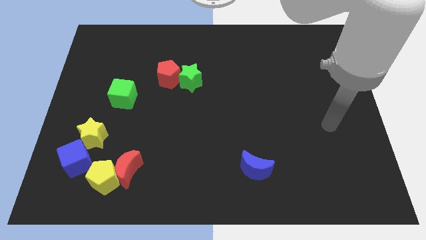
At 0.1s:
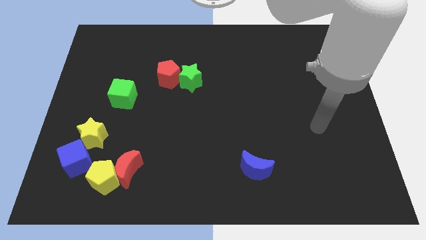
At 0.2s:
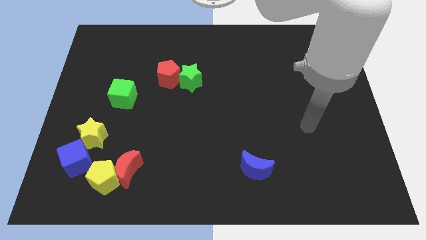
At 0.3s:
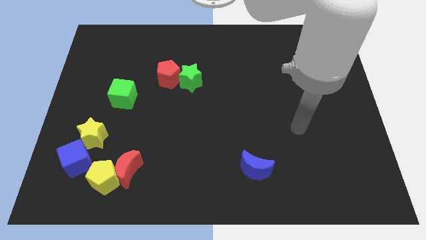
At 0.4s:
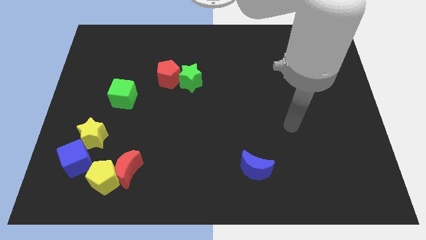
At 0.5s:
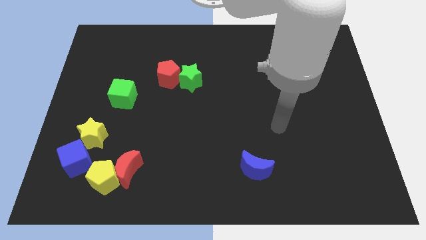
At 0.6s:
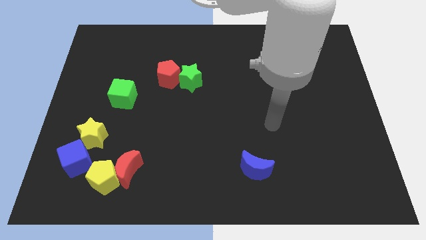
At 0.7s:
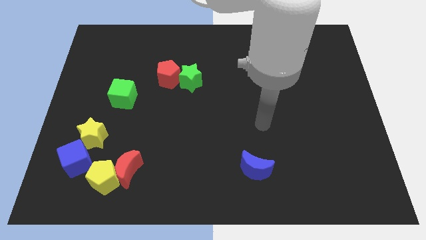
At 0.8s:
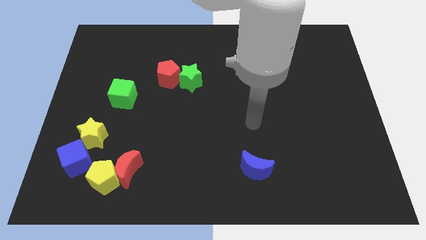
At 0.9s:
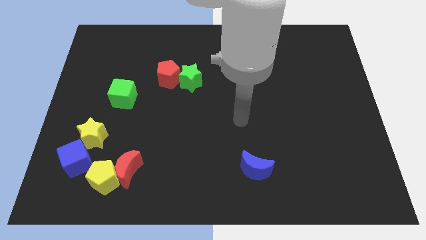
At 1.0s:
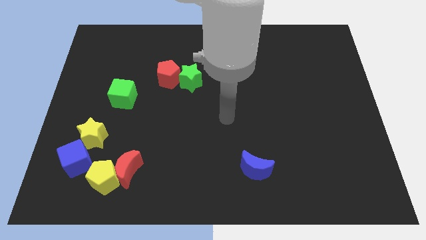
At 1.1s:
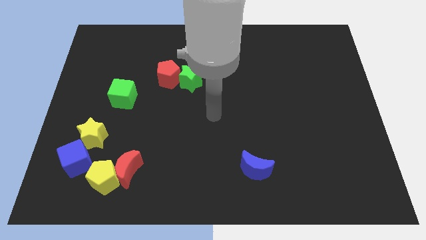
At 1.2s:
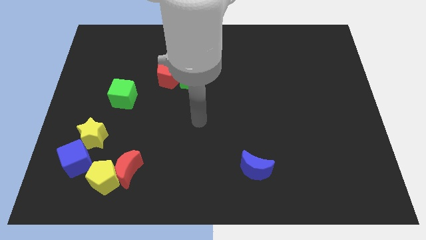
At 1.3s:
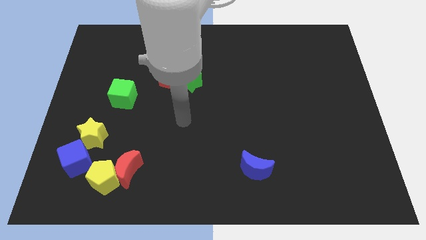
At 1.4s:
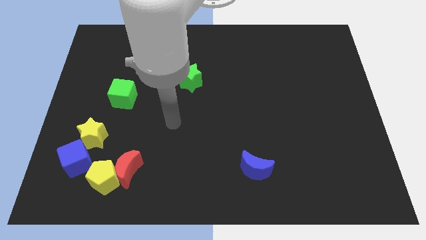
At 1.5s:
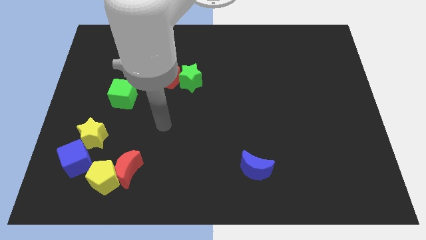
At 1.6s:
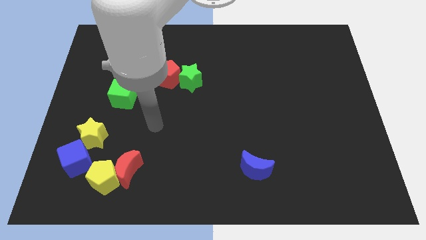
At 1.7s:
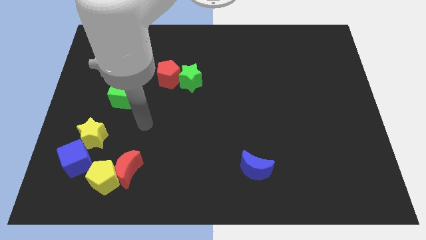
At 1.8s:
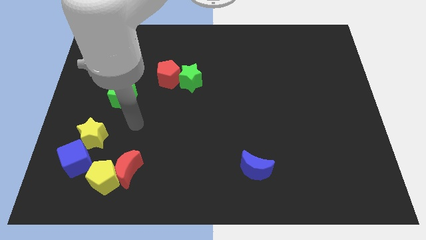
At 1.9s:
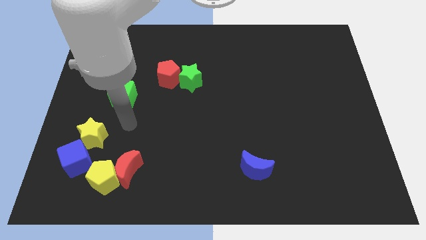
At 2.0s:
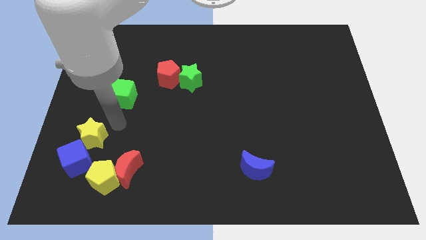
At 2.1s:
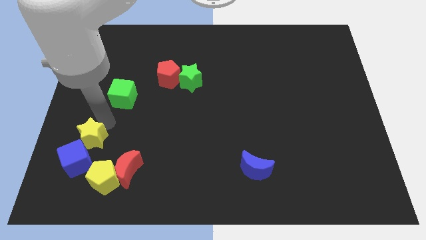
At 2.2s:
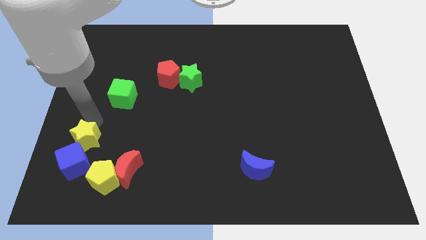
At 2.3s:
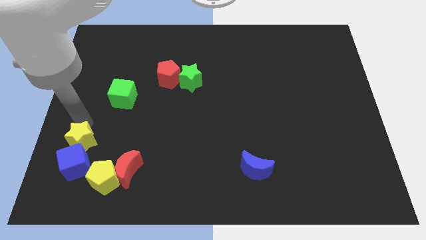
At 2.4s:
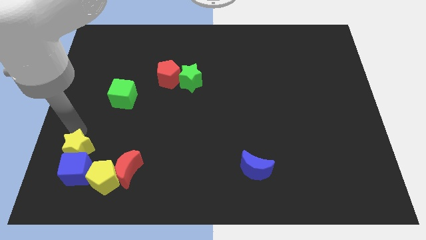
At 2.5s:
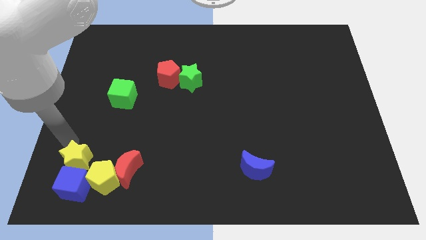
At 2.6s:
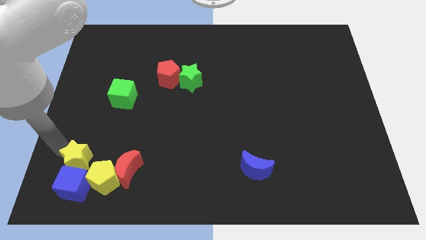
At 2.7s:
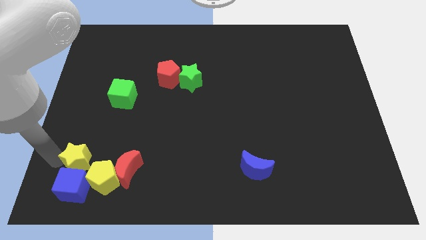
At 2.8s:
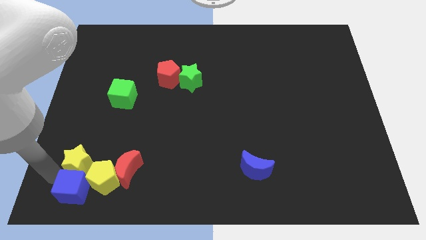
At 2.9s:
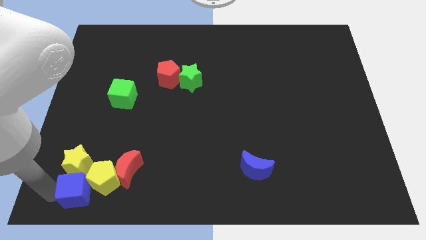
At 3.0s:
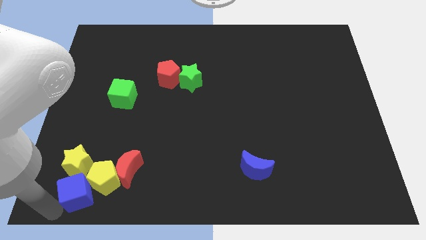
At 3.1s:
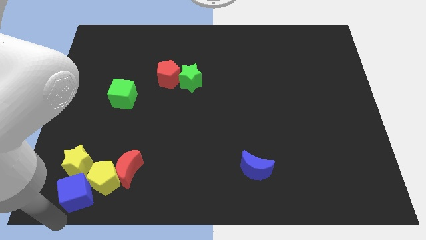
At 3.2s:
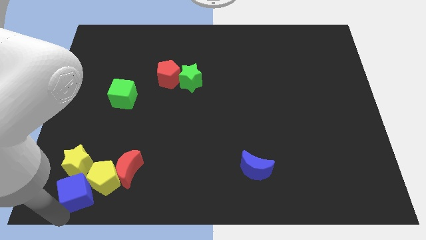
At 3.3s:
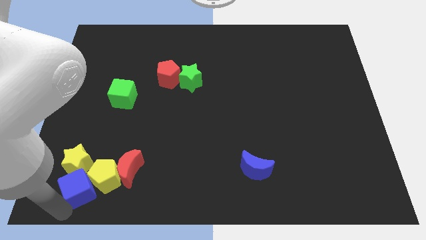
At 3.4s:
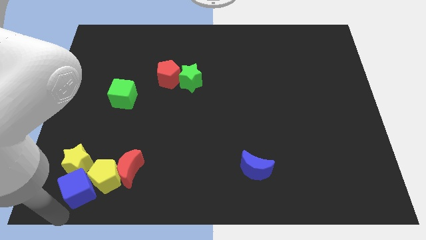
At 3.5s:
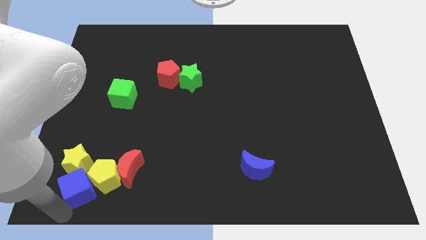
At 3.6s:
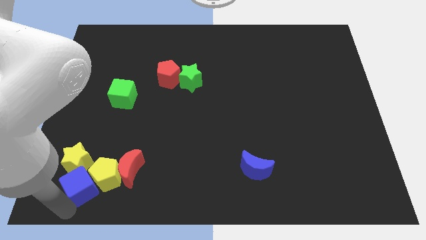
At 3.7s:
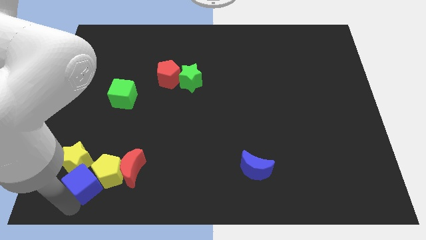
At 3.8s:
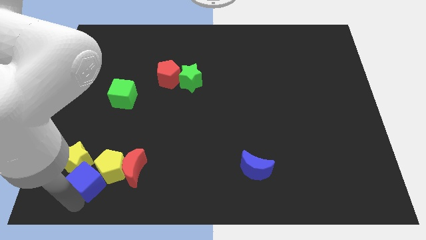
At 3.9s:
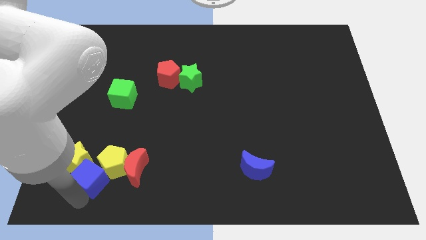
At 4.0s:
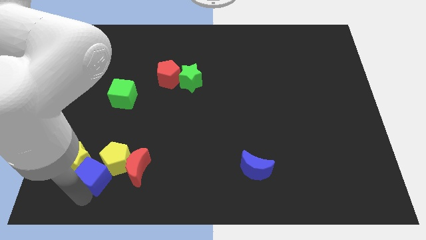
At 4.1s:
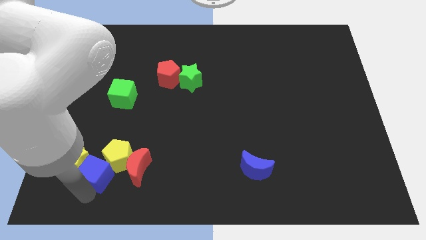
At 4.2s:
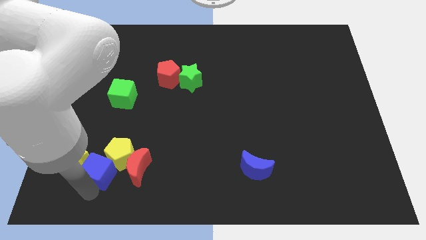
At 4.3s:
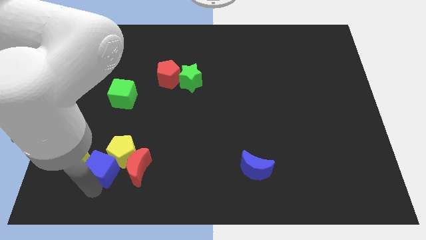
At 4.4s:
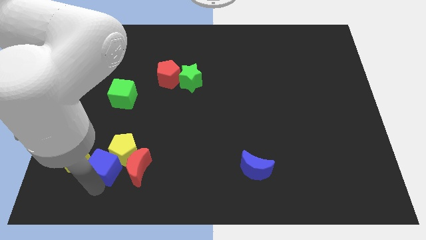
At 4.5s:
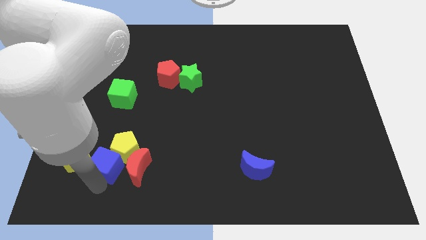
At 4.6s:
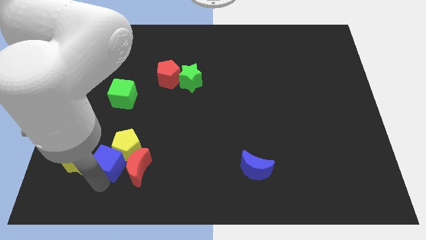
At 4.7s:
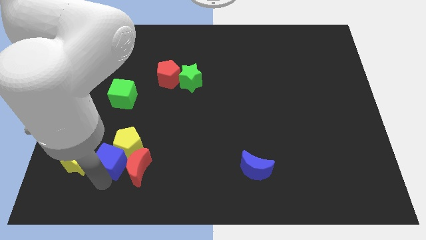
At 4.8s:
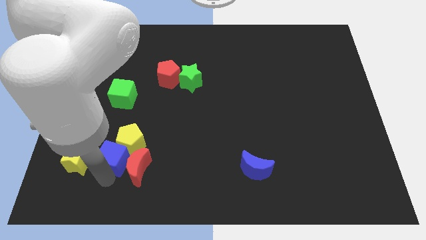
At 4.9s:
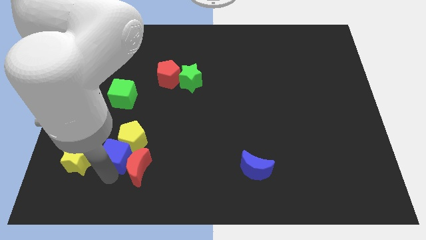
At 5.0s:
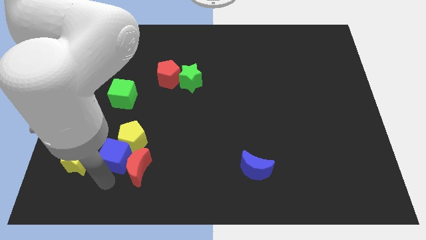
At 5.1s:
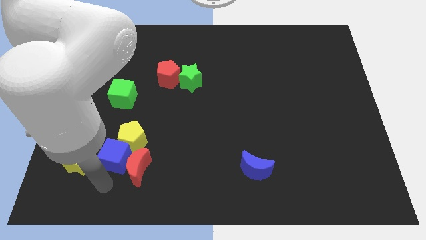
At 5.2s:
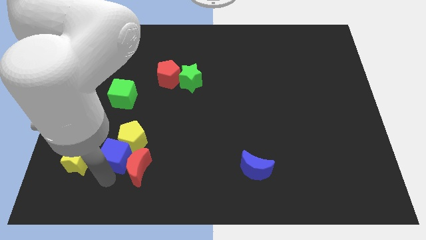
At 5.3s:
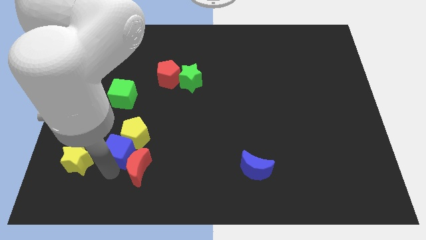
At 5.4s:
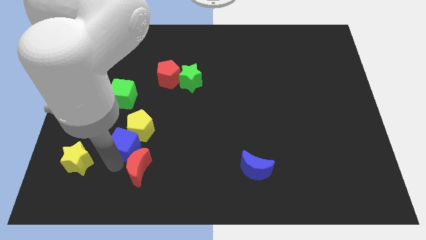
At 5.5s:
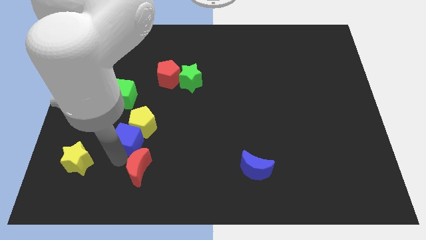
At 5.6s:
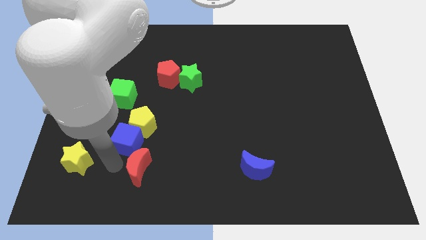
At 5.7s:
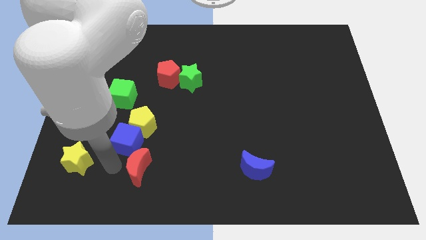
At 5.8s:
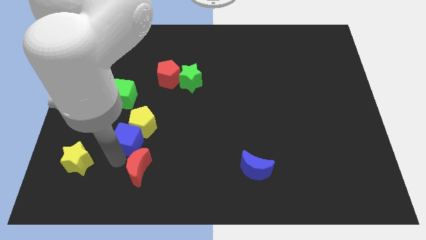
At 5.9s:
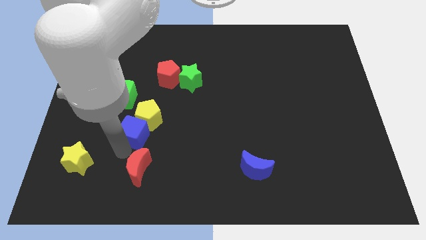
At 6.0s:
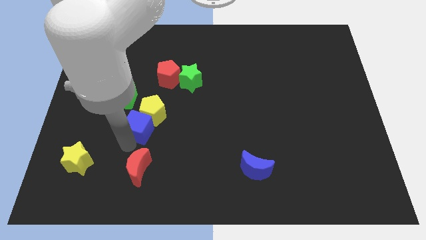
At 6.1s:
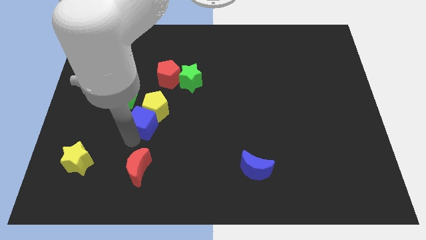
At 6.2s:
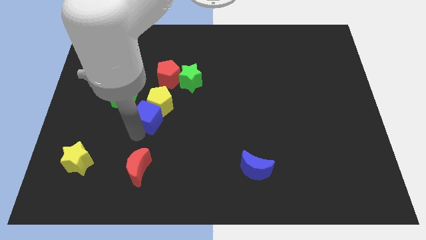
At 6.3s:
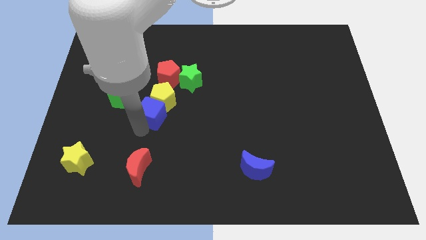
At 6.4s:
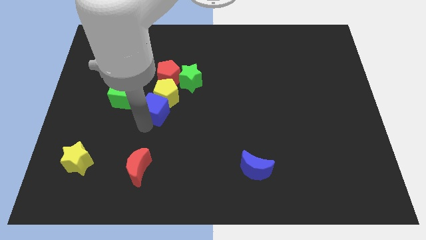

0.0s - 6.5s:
put the blue cube diagonally down and to the left of the green star
